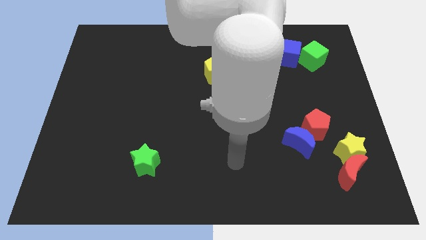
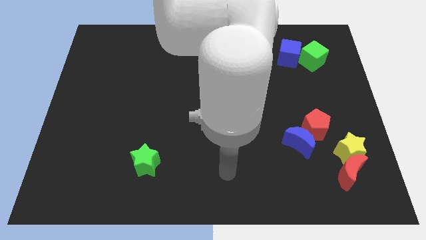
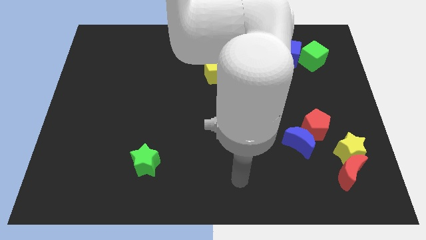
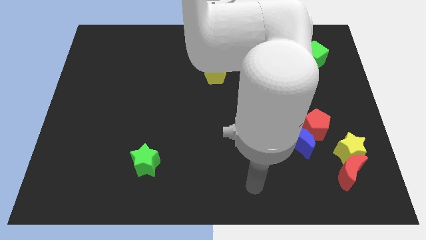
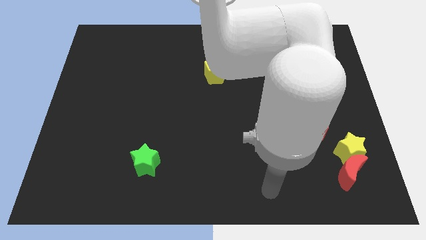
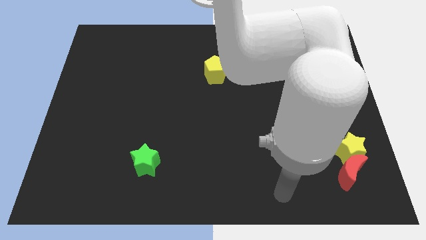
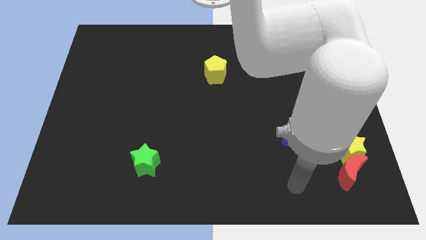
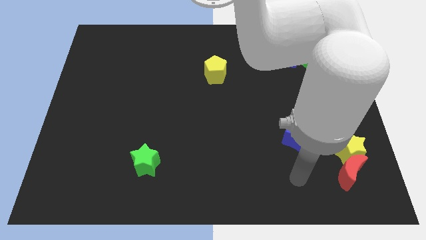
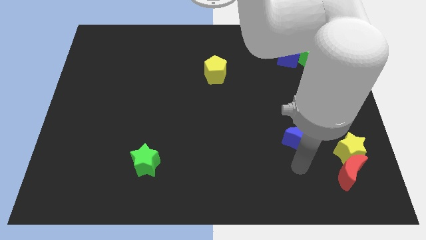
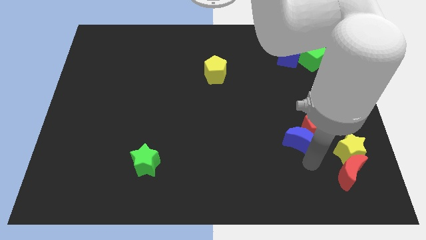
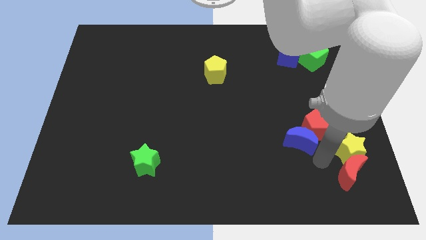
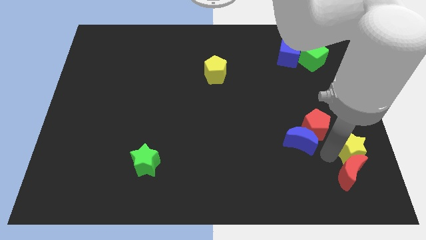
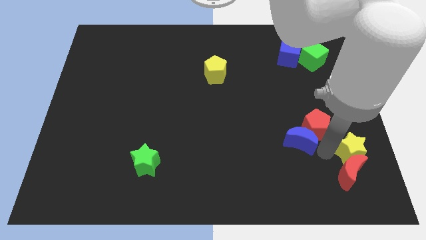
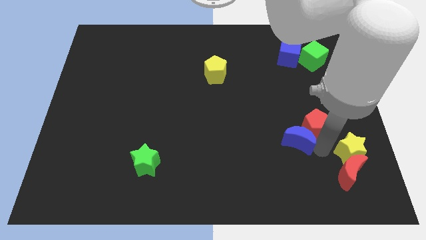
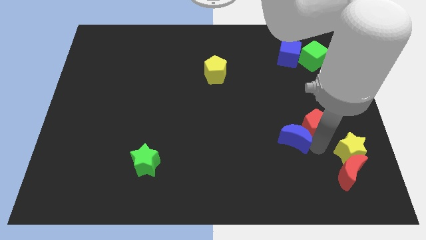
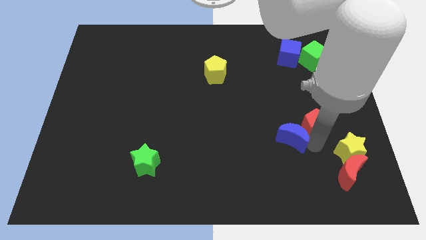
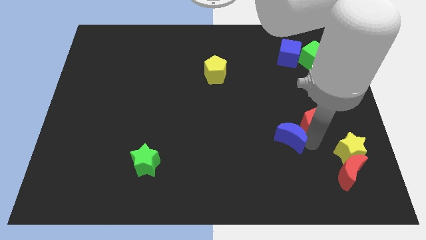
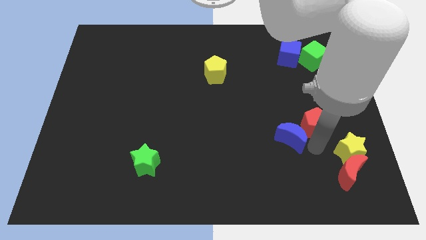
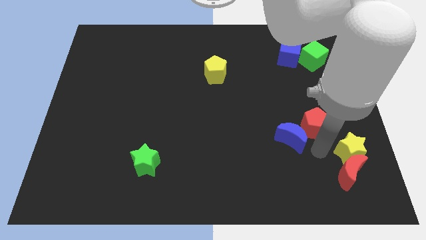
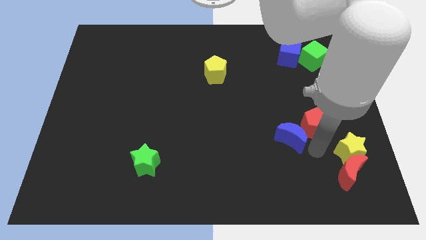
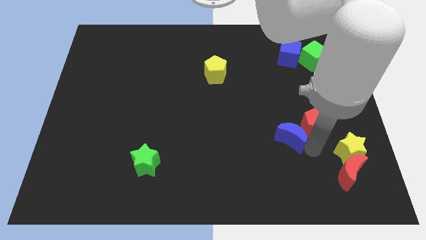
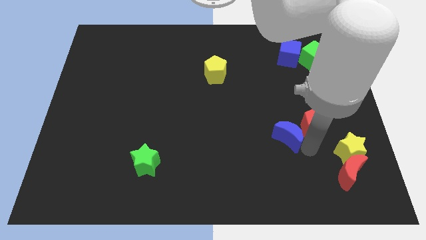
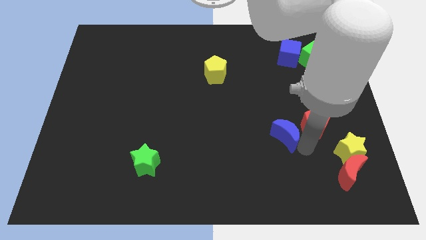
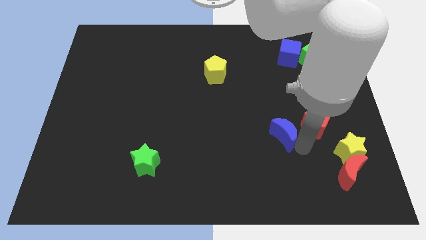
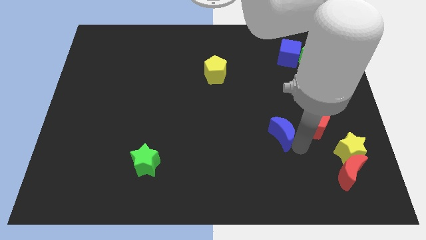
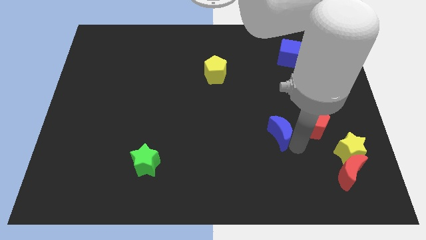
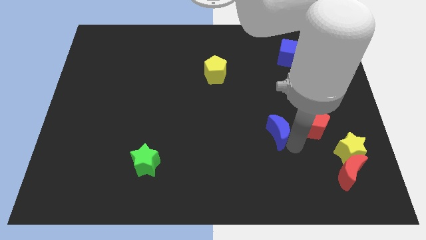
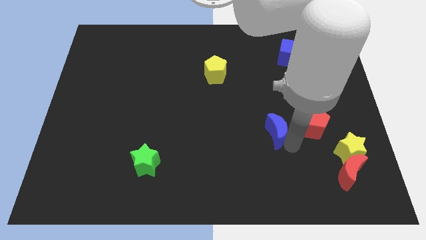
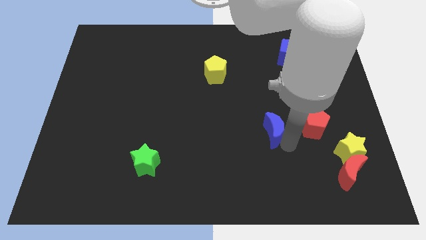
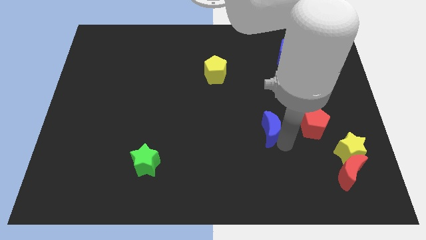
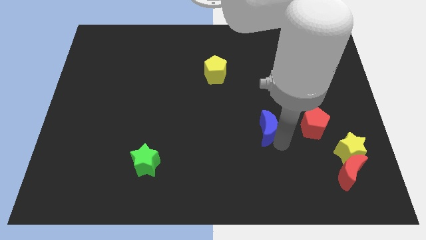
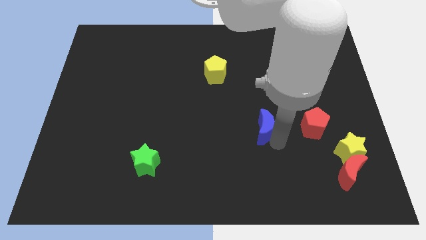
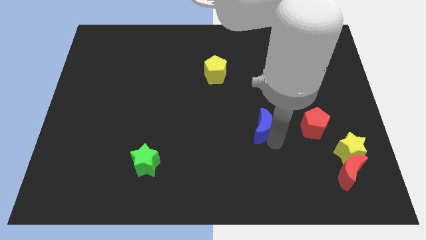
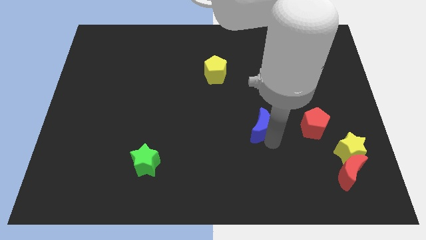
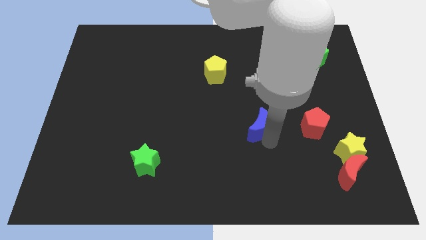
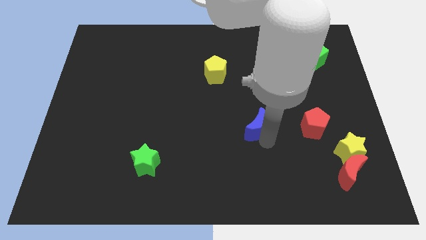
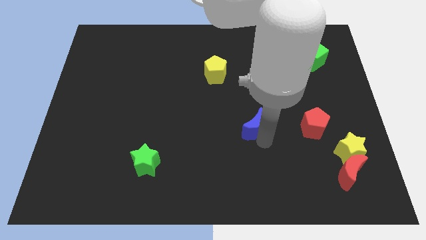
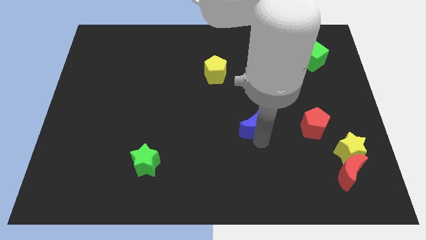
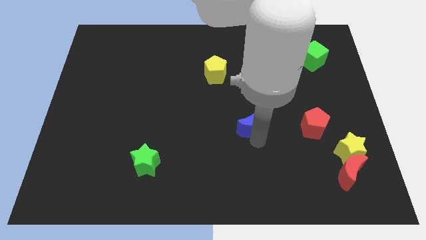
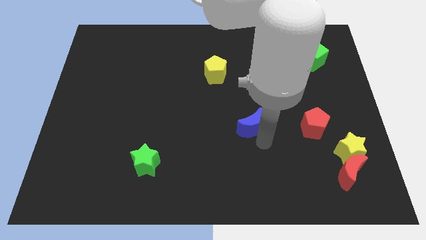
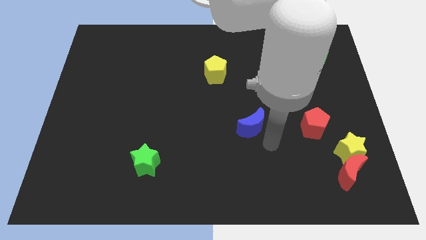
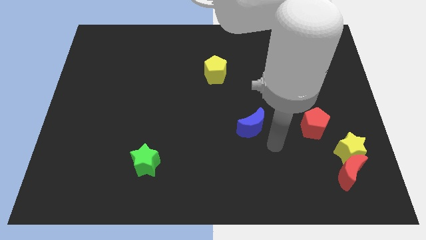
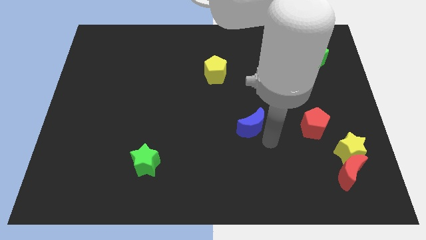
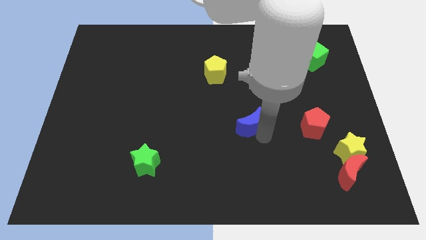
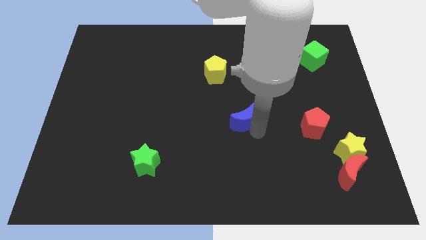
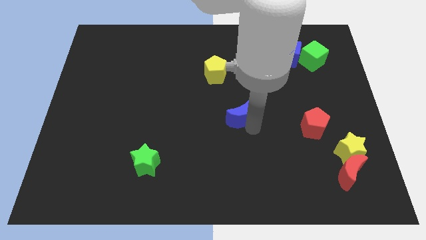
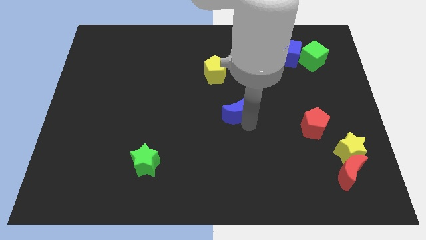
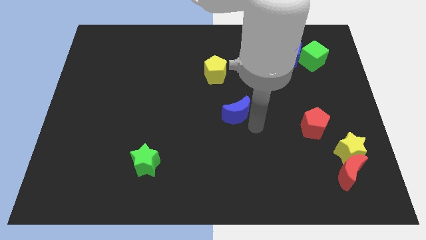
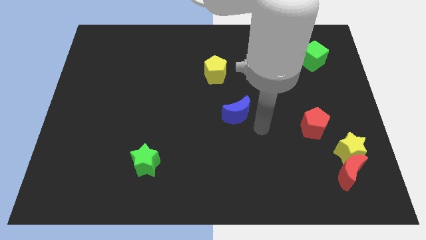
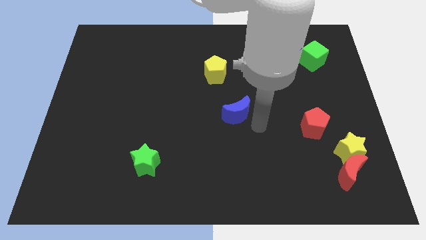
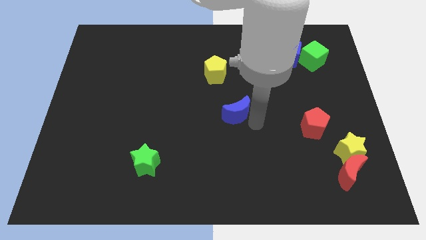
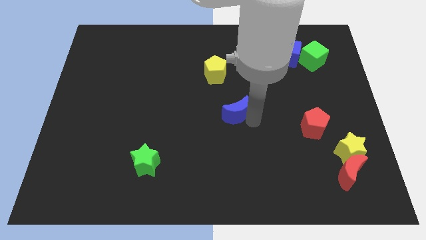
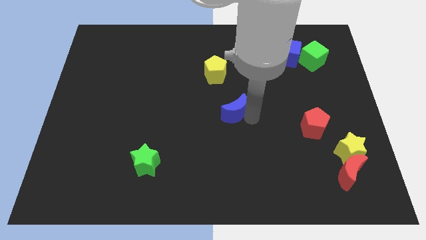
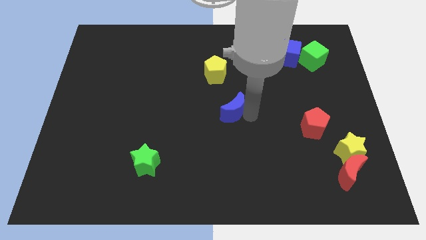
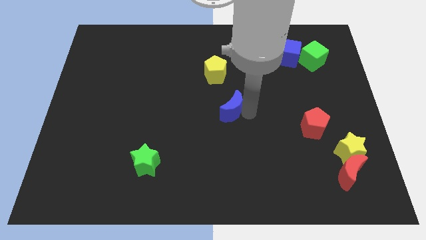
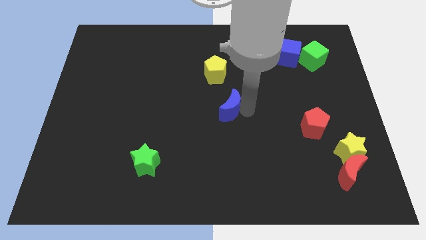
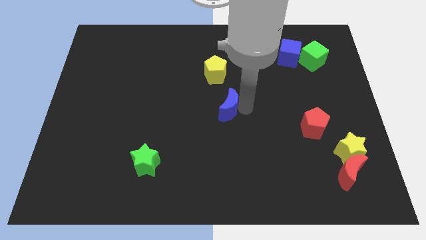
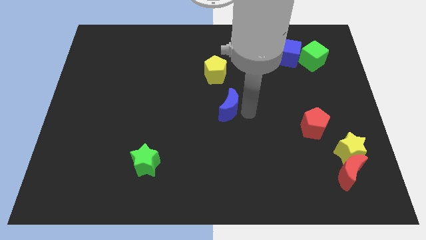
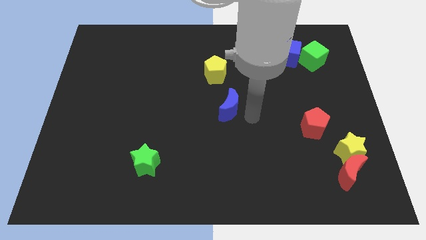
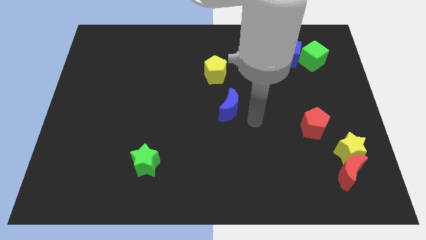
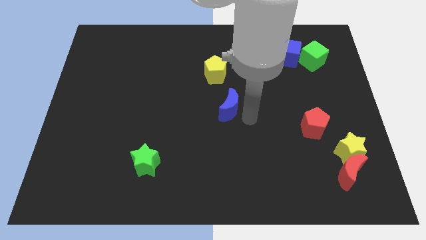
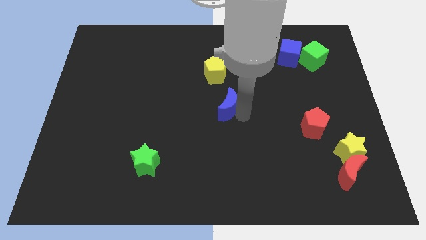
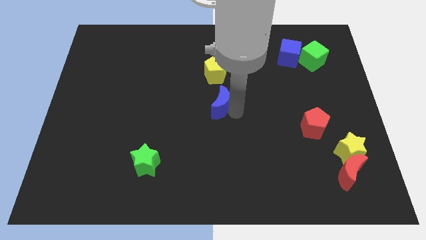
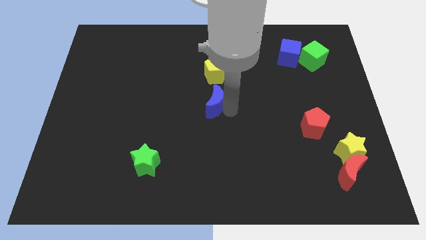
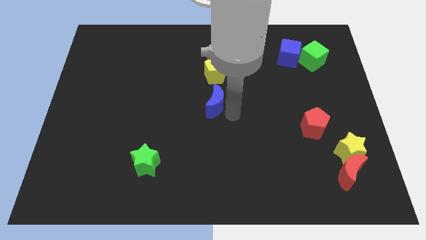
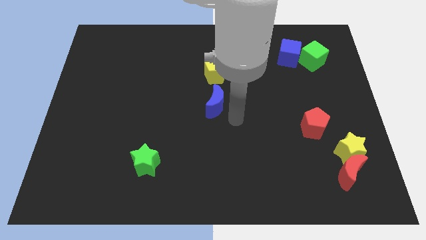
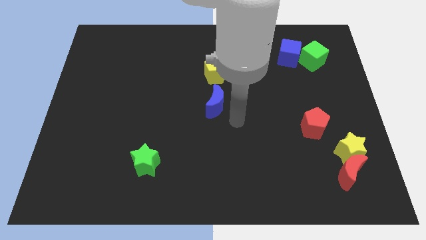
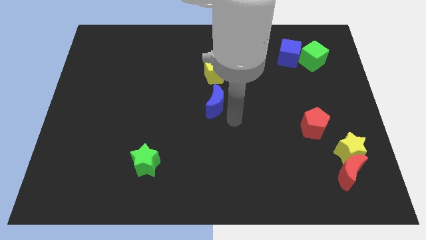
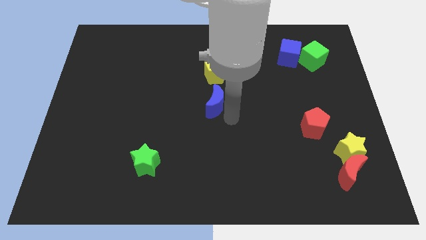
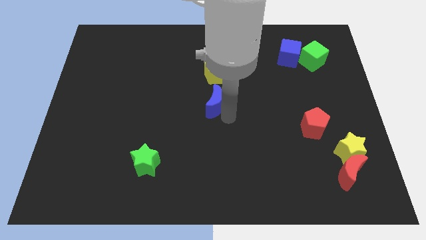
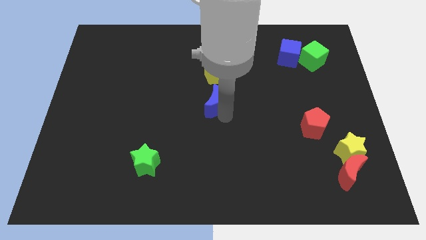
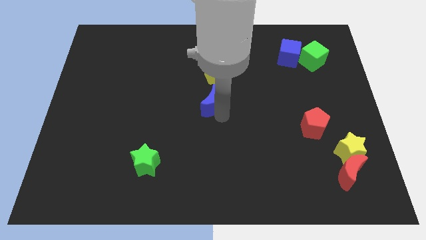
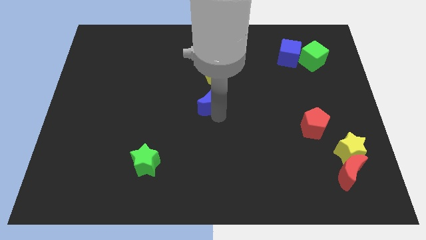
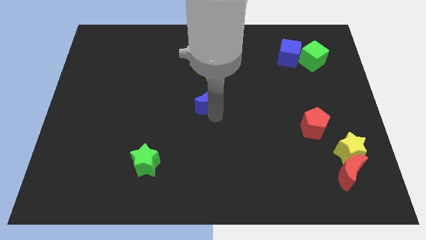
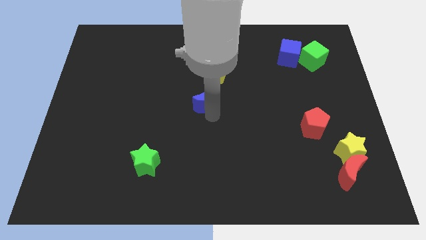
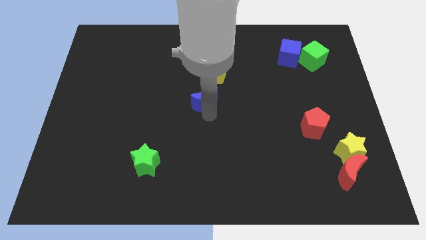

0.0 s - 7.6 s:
put the blue moon diagonally down and to the left of the yellow pentagon

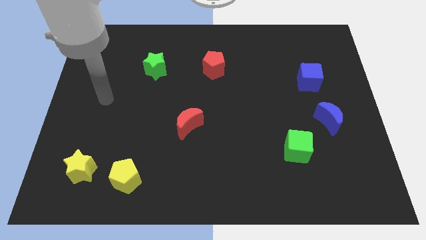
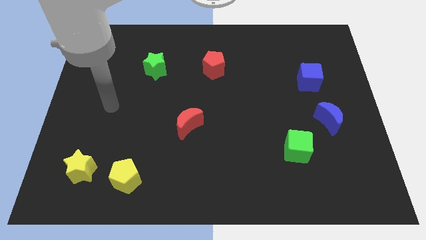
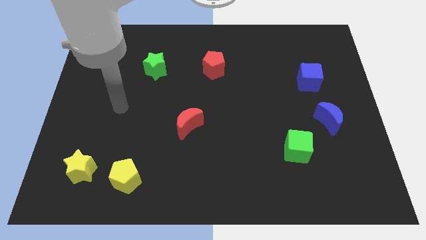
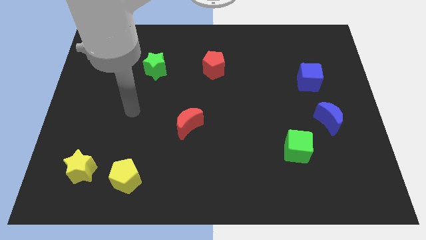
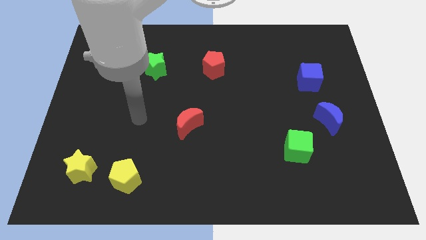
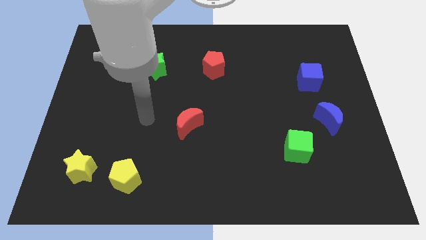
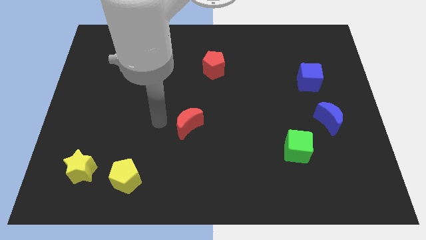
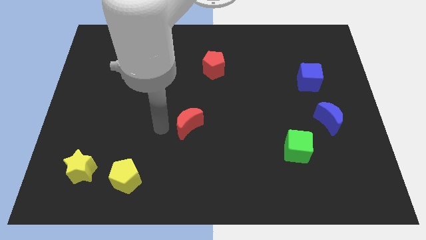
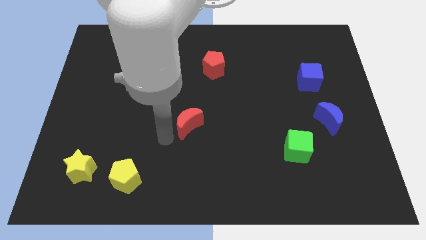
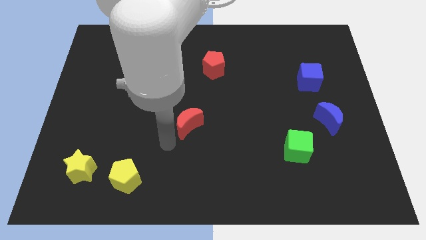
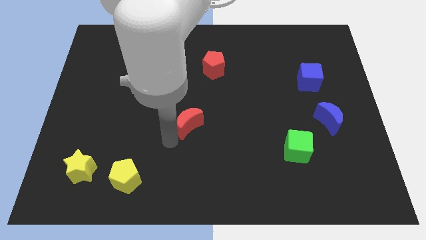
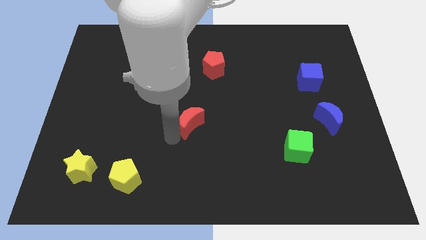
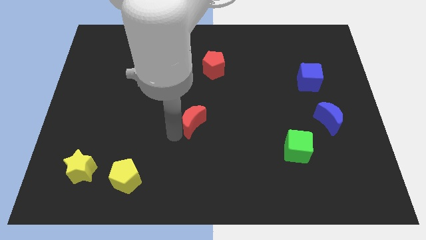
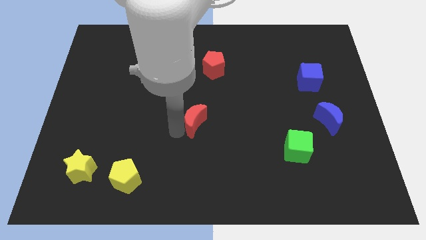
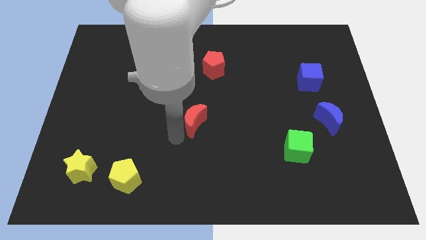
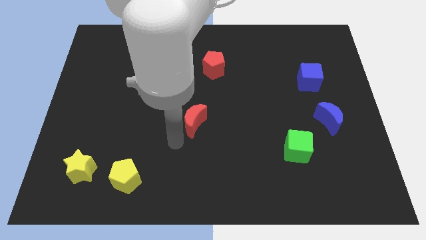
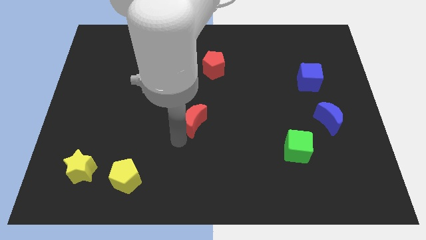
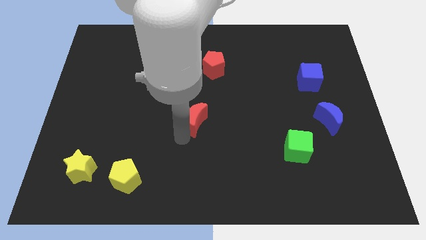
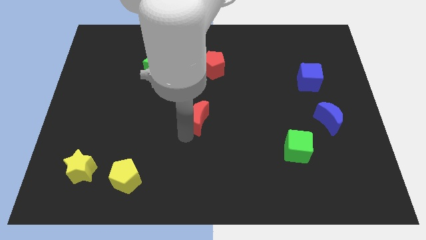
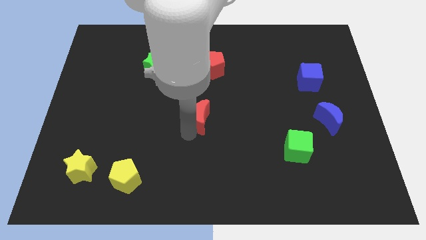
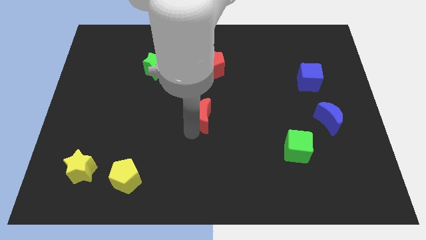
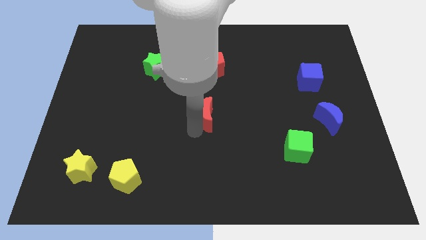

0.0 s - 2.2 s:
put the red moon to the bottom of the red pentagon
